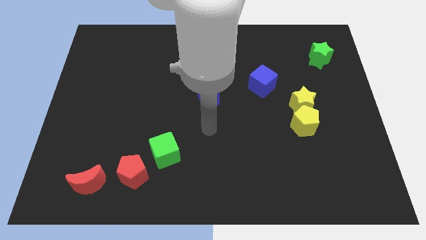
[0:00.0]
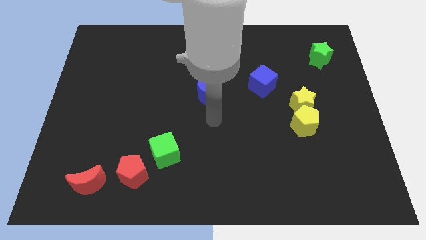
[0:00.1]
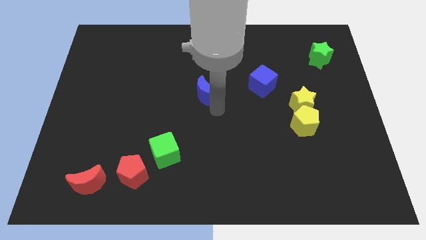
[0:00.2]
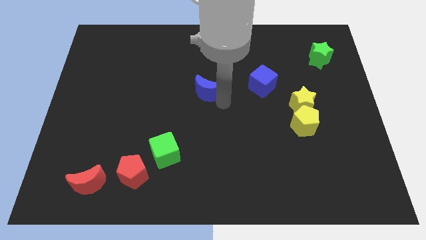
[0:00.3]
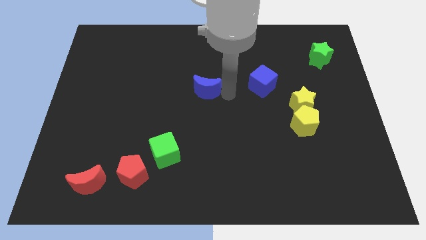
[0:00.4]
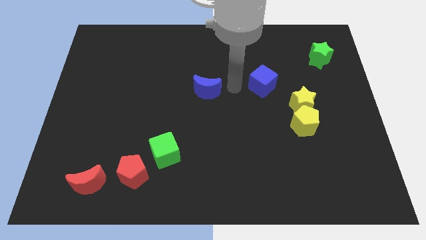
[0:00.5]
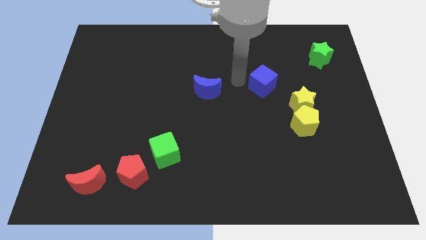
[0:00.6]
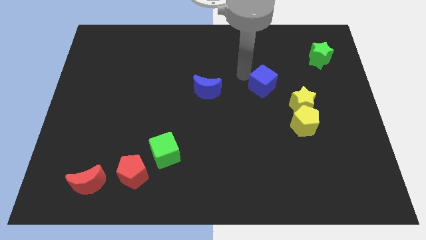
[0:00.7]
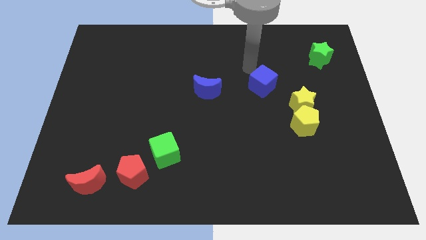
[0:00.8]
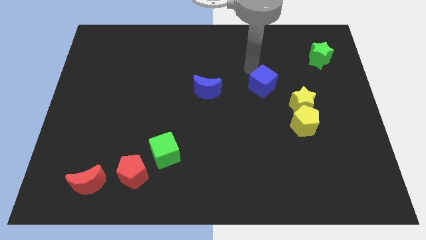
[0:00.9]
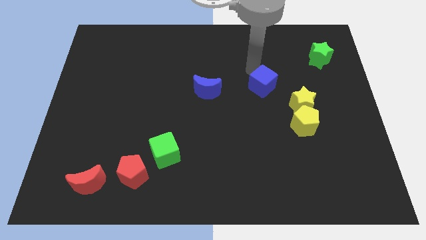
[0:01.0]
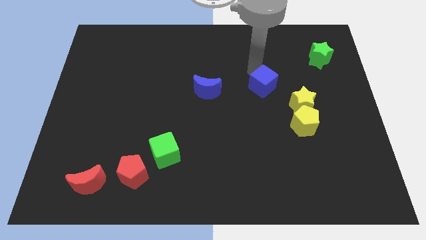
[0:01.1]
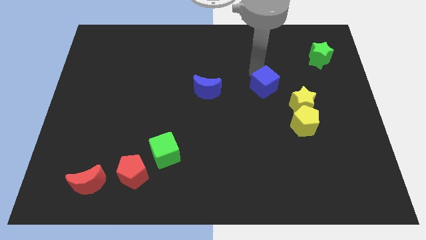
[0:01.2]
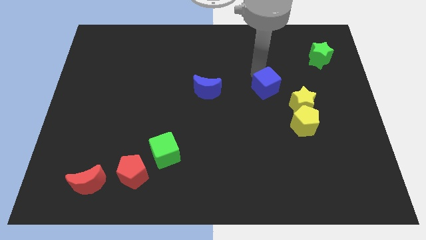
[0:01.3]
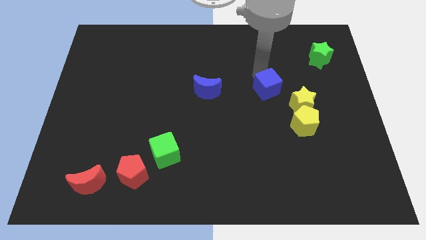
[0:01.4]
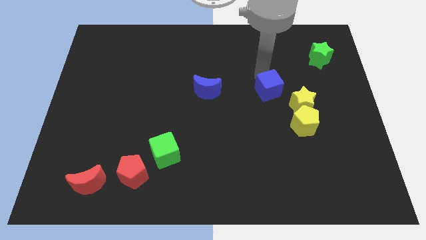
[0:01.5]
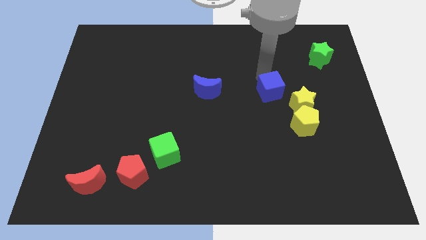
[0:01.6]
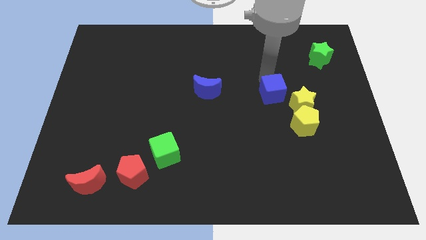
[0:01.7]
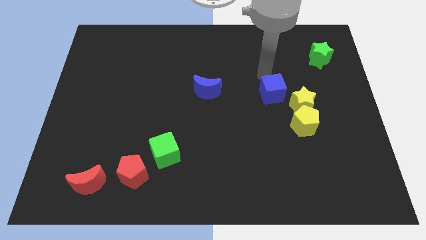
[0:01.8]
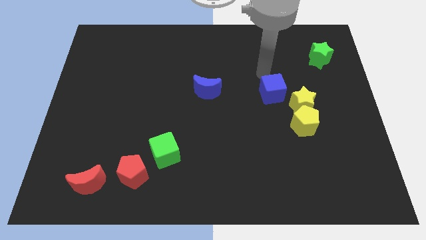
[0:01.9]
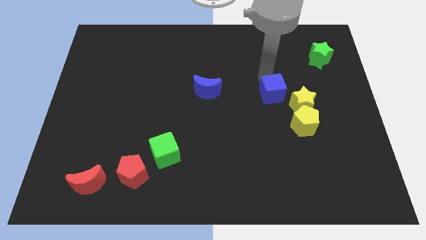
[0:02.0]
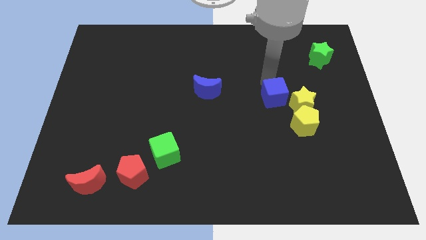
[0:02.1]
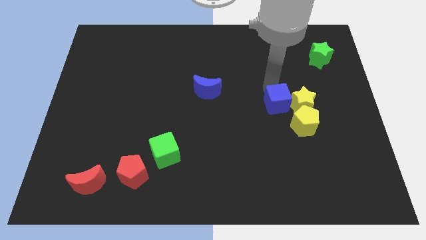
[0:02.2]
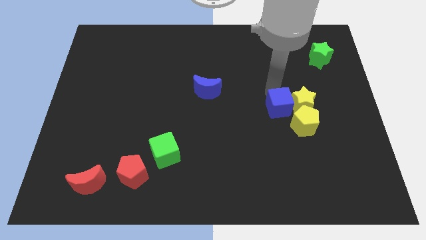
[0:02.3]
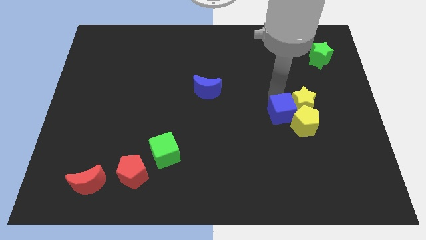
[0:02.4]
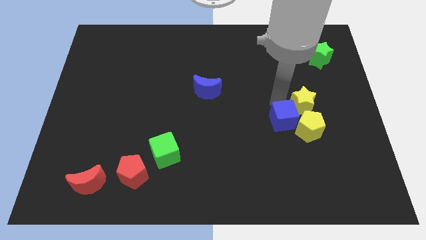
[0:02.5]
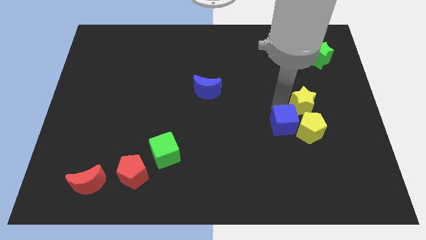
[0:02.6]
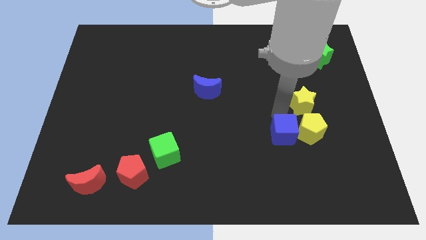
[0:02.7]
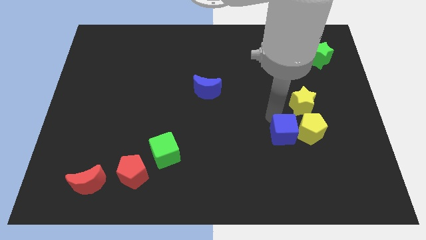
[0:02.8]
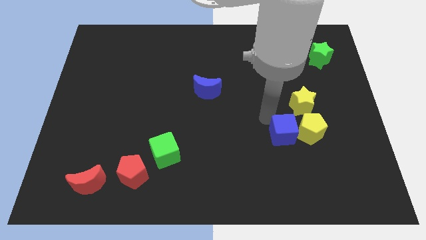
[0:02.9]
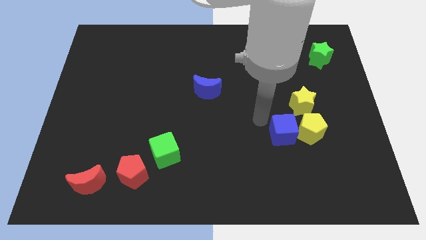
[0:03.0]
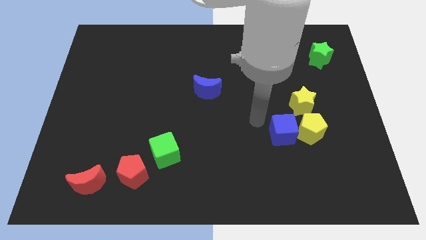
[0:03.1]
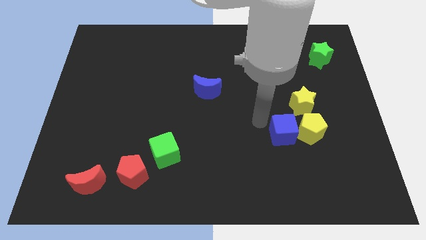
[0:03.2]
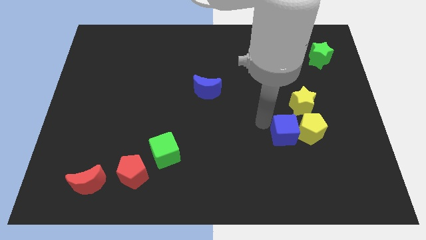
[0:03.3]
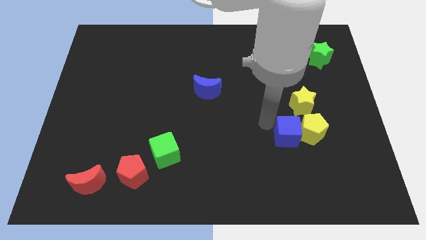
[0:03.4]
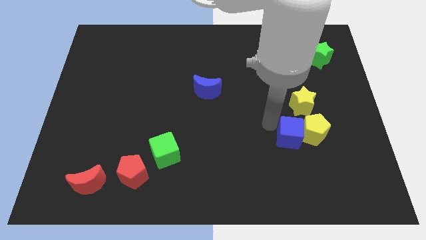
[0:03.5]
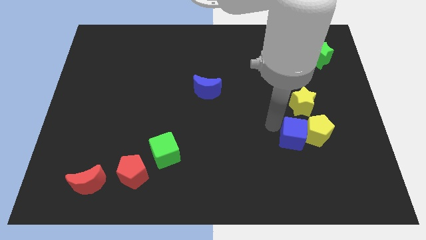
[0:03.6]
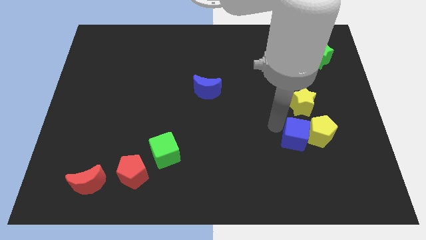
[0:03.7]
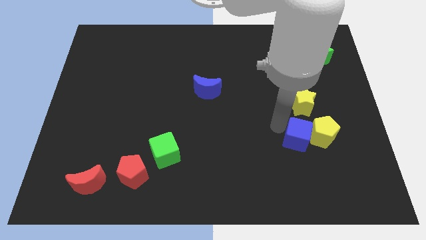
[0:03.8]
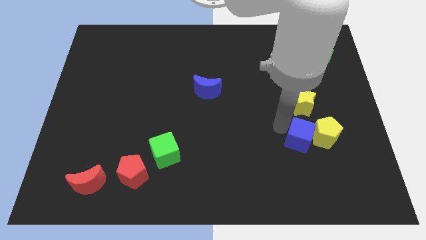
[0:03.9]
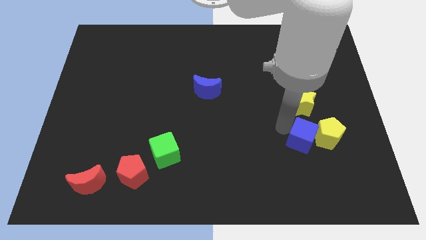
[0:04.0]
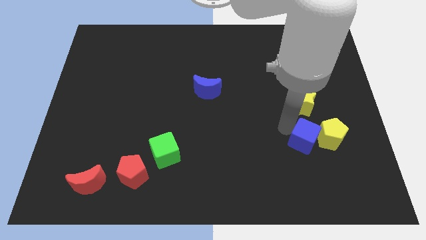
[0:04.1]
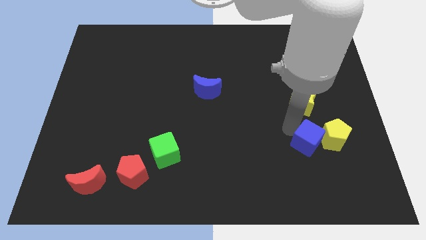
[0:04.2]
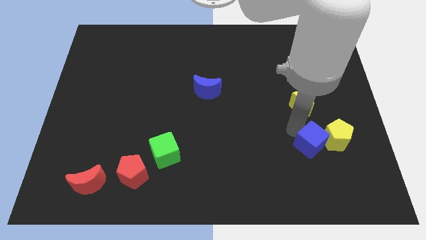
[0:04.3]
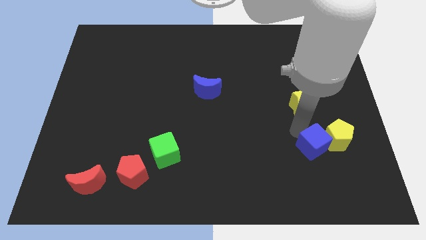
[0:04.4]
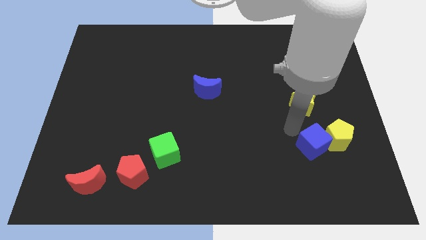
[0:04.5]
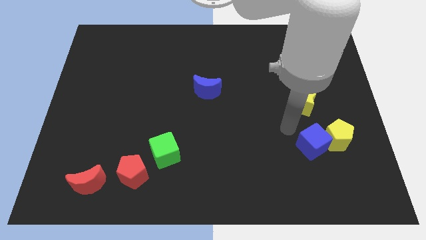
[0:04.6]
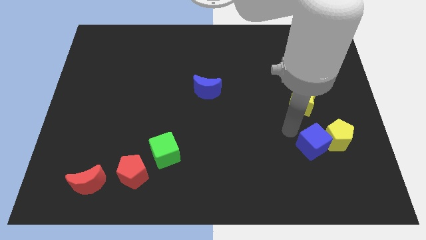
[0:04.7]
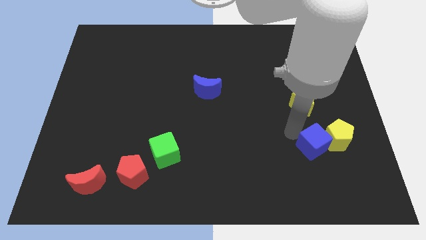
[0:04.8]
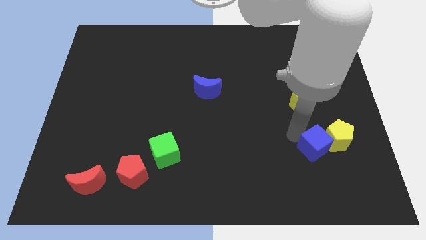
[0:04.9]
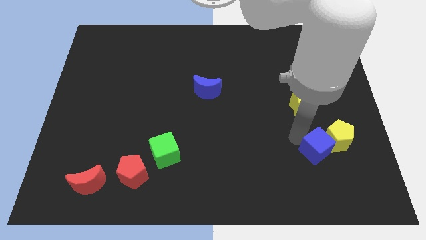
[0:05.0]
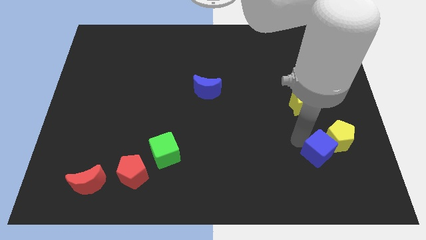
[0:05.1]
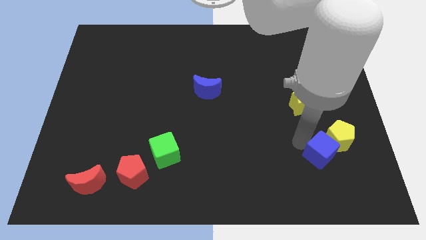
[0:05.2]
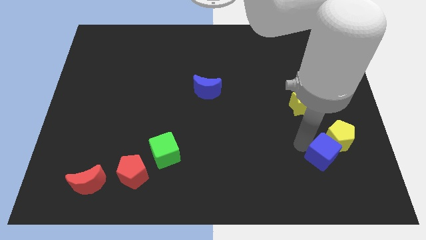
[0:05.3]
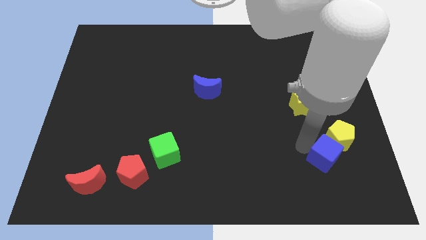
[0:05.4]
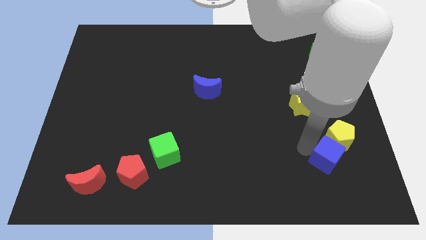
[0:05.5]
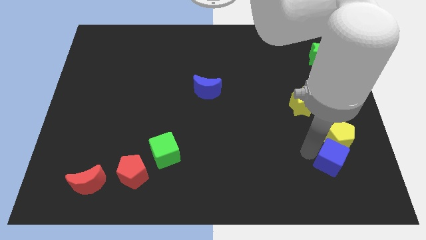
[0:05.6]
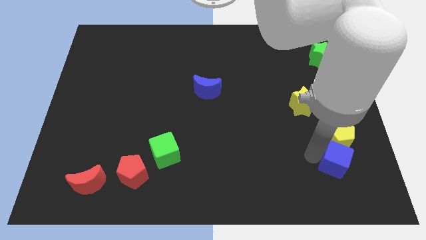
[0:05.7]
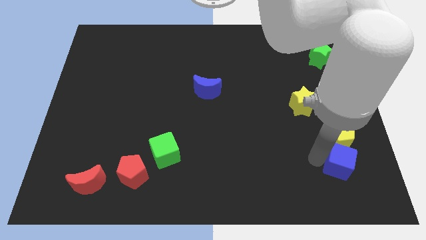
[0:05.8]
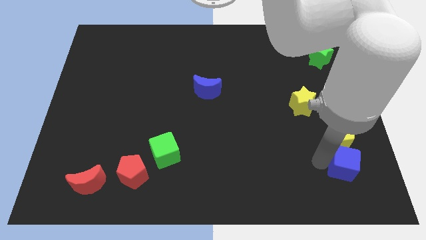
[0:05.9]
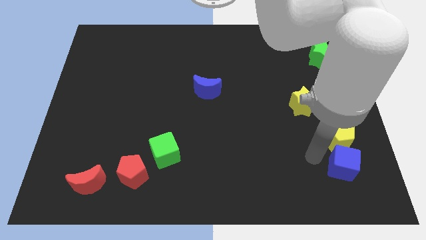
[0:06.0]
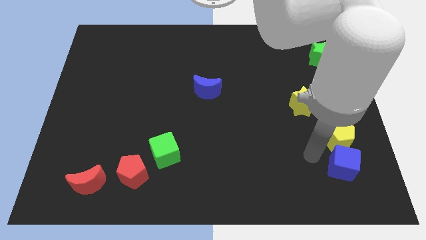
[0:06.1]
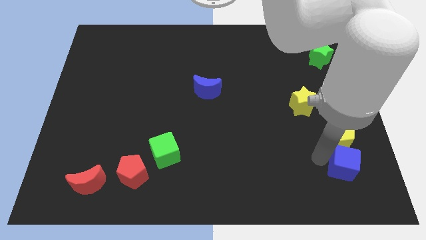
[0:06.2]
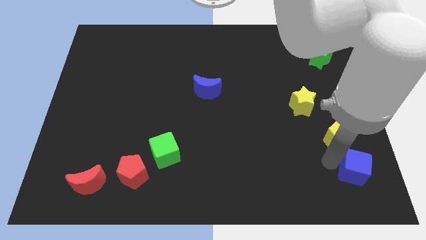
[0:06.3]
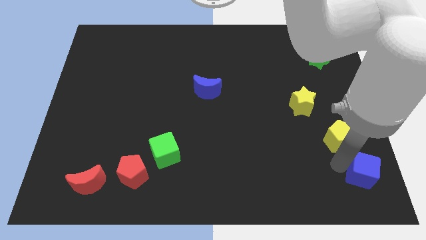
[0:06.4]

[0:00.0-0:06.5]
move the blue cube to the bottom right of the board

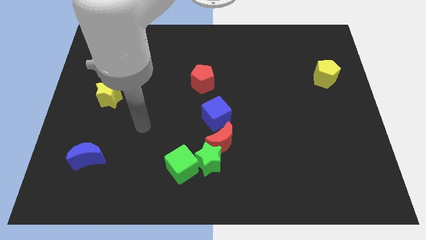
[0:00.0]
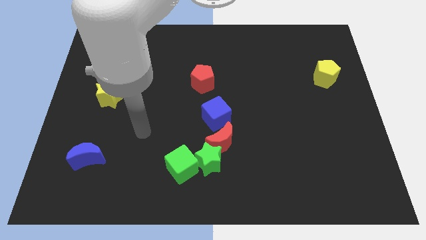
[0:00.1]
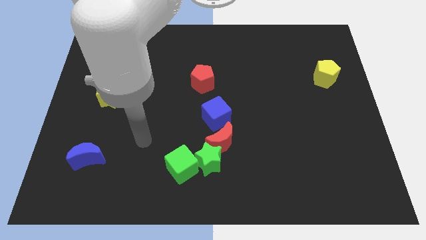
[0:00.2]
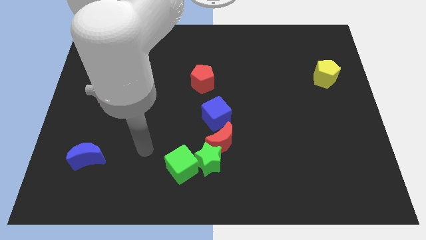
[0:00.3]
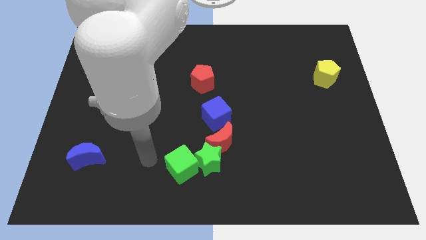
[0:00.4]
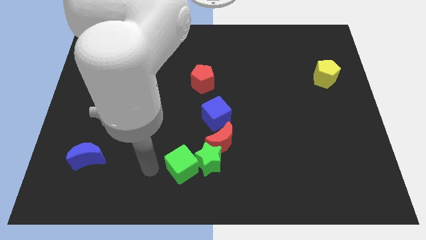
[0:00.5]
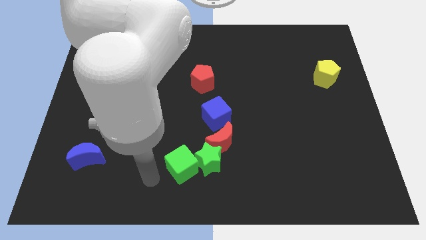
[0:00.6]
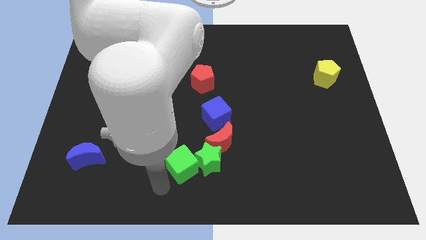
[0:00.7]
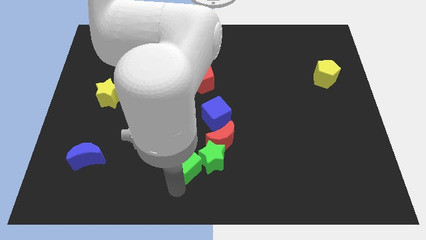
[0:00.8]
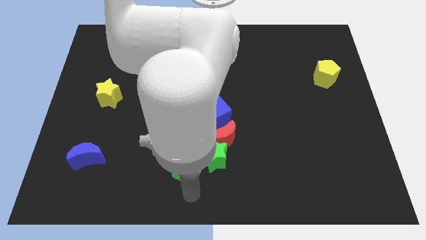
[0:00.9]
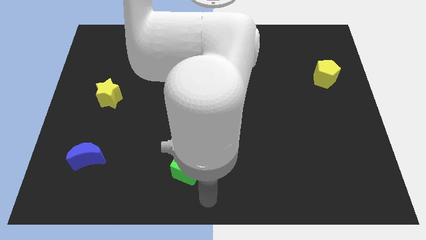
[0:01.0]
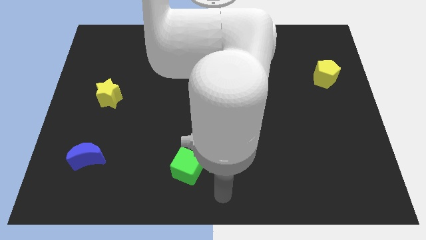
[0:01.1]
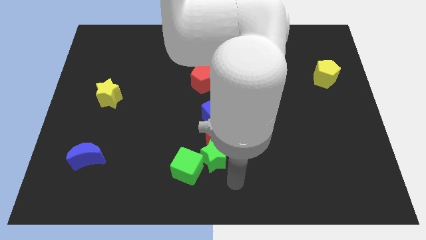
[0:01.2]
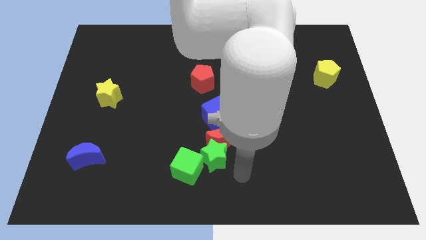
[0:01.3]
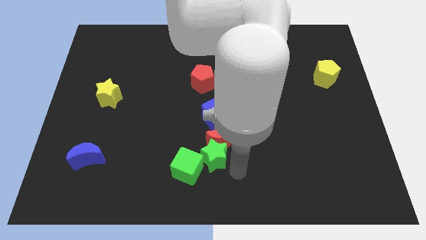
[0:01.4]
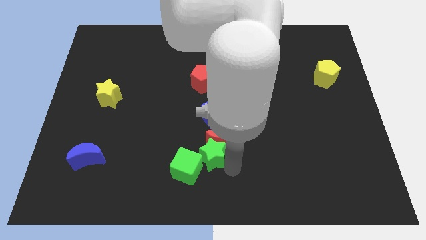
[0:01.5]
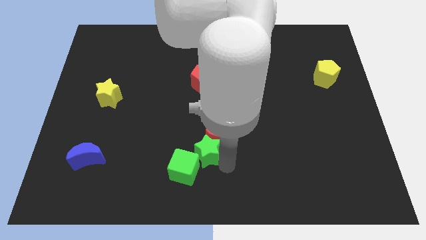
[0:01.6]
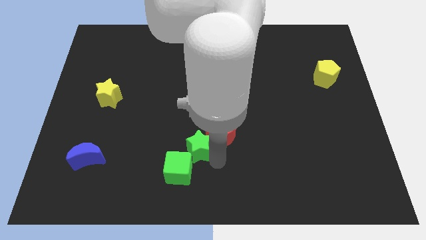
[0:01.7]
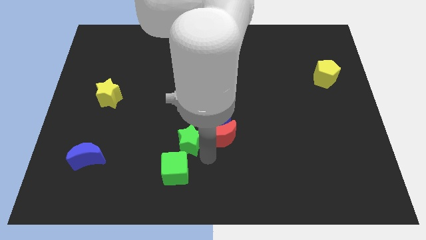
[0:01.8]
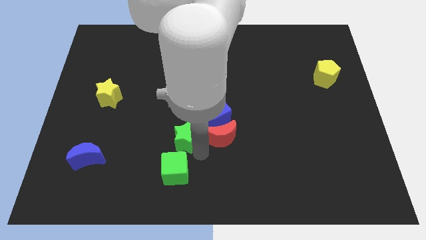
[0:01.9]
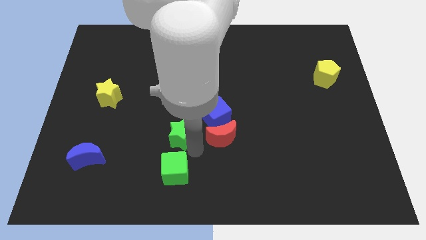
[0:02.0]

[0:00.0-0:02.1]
put the green star to the center of the board
